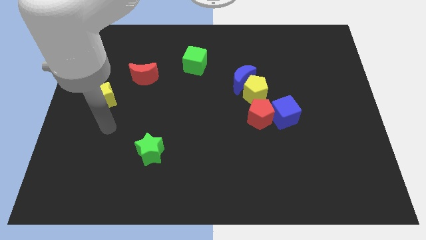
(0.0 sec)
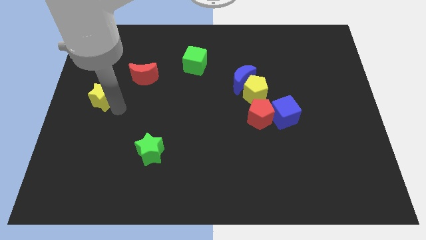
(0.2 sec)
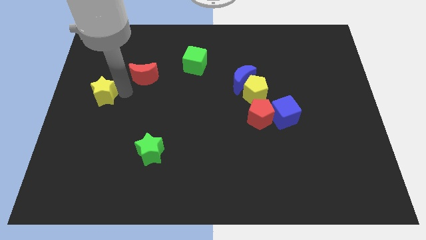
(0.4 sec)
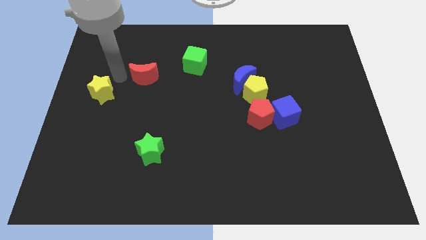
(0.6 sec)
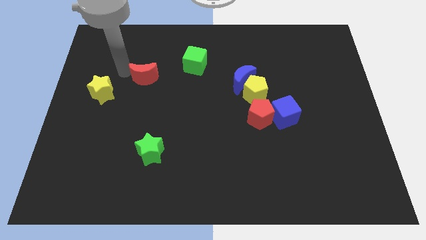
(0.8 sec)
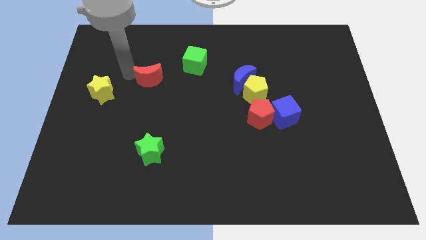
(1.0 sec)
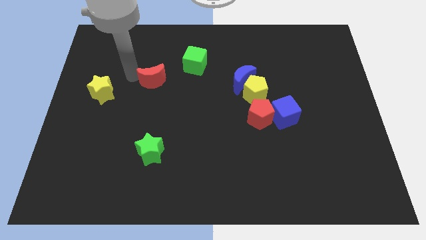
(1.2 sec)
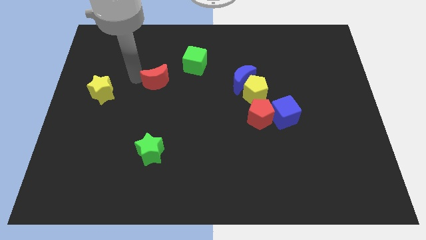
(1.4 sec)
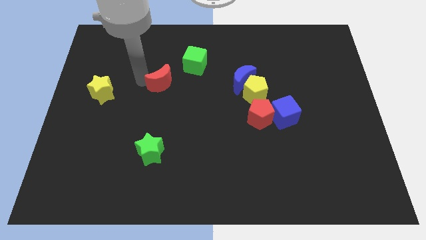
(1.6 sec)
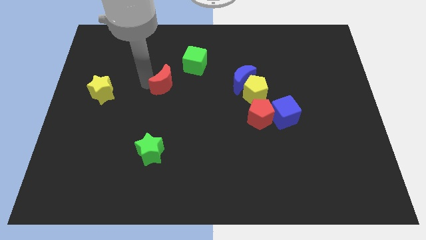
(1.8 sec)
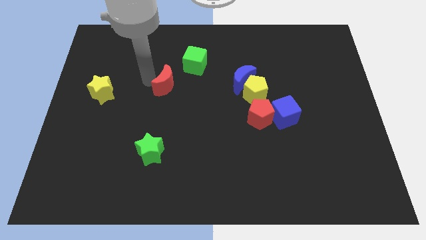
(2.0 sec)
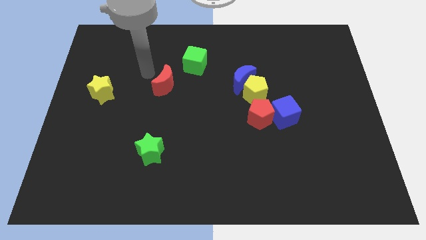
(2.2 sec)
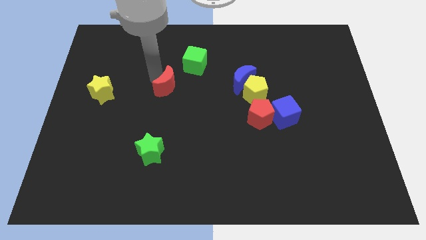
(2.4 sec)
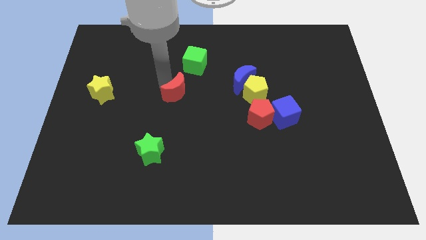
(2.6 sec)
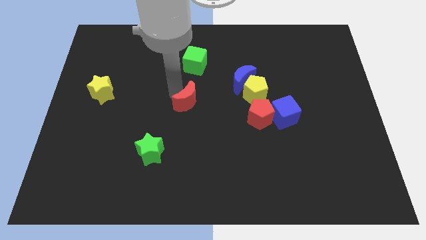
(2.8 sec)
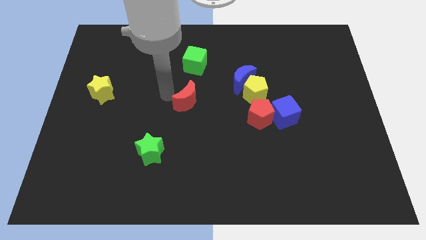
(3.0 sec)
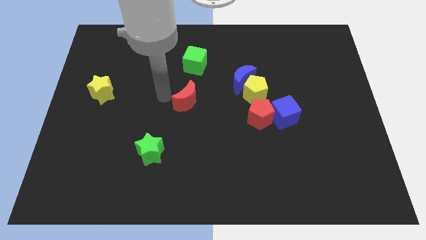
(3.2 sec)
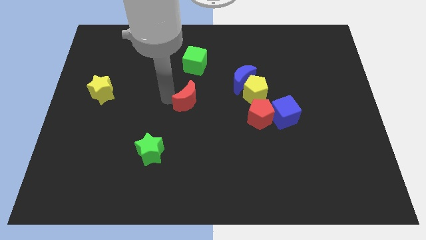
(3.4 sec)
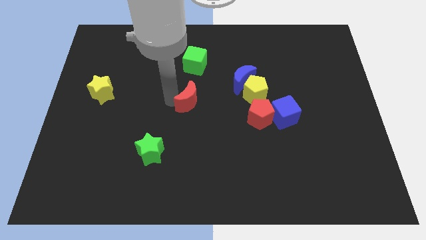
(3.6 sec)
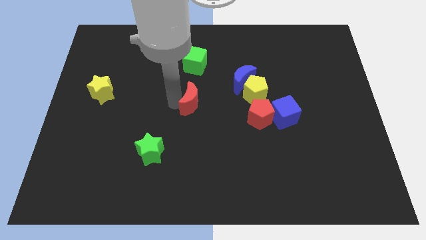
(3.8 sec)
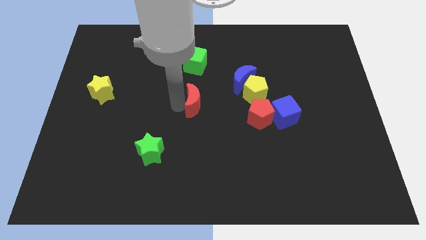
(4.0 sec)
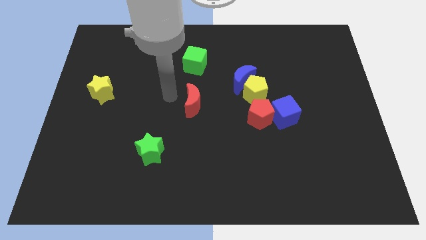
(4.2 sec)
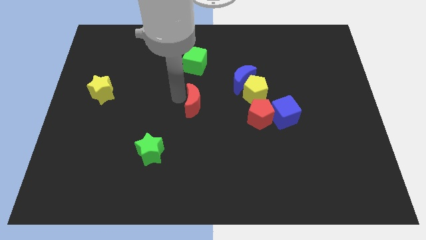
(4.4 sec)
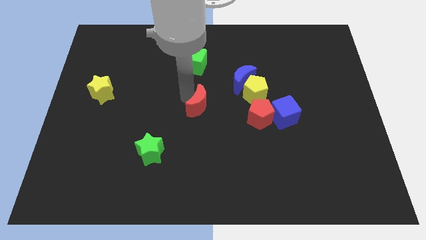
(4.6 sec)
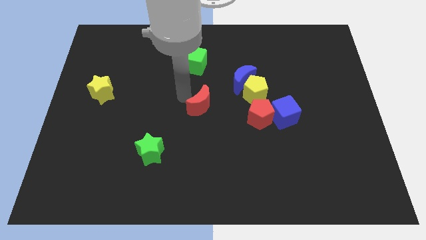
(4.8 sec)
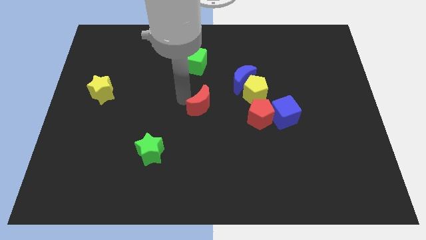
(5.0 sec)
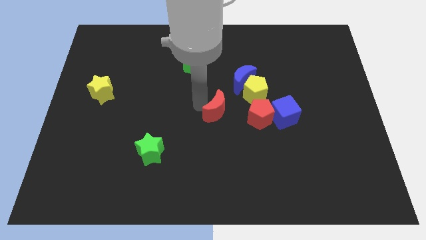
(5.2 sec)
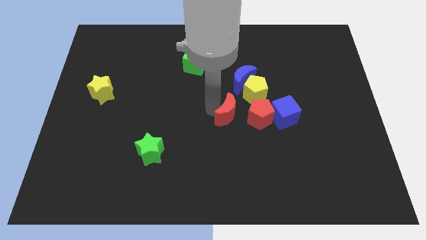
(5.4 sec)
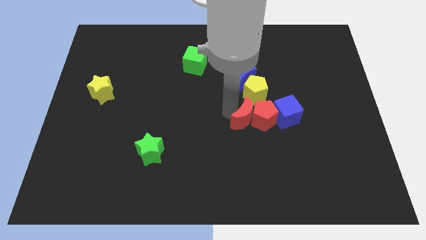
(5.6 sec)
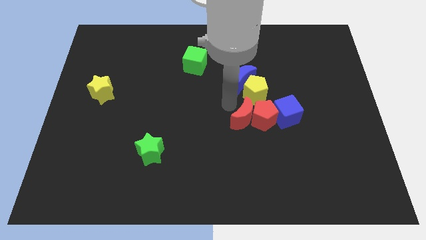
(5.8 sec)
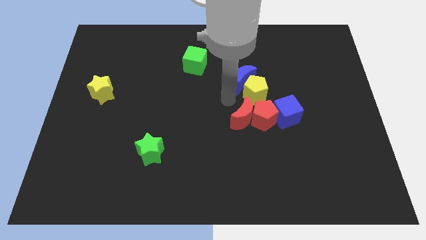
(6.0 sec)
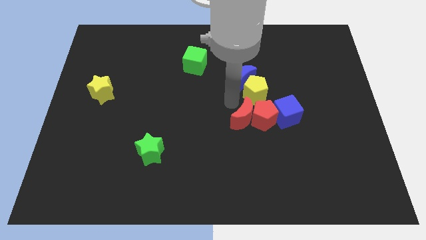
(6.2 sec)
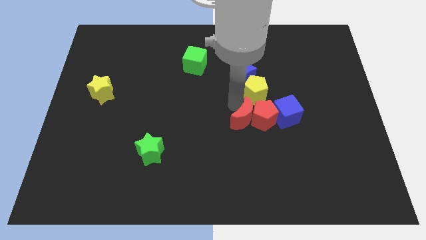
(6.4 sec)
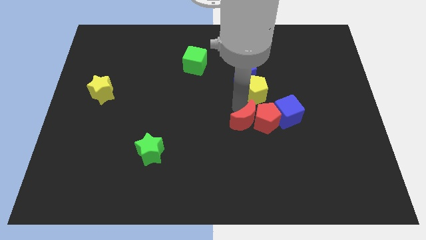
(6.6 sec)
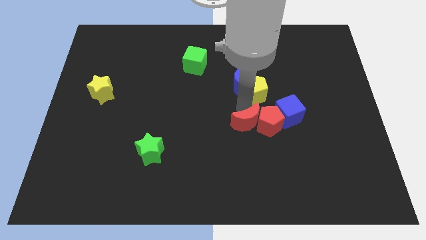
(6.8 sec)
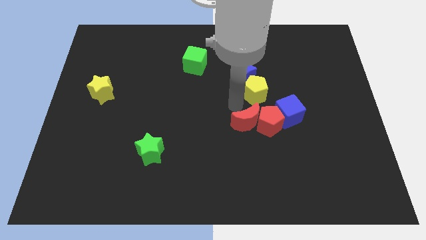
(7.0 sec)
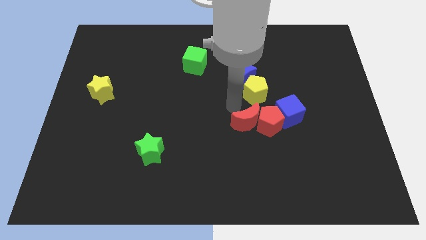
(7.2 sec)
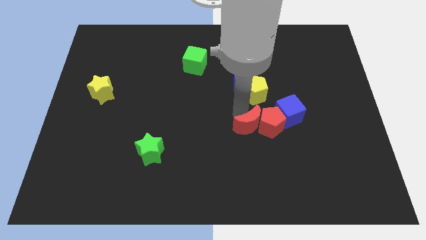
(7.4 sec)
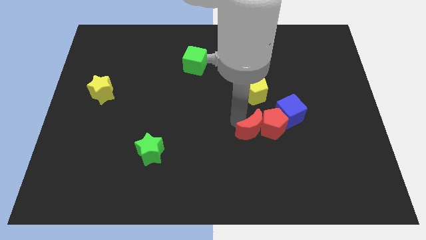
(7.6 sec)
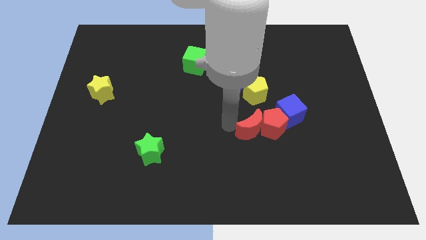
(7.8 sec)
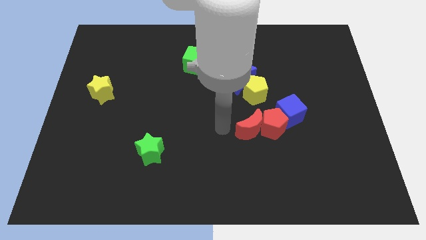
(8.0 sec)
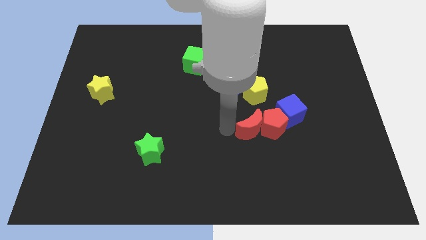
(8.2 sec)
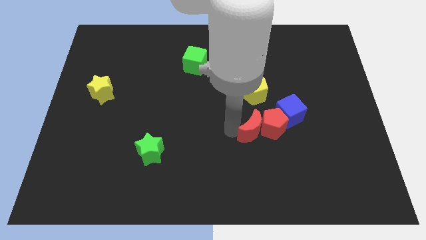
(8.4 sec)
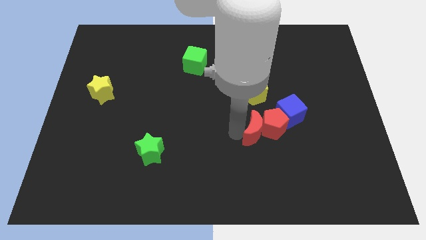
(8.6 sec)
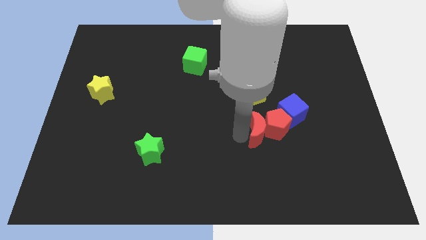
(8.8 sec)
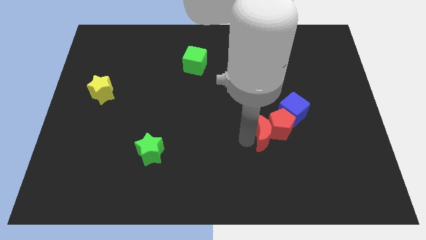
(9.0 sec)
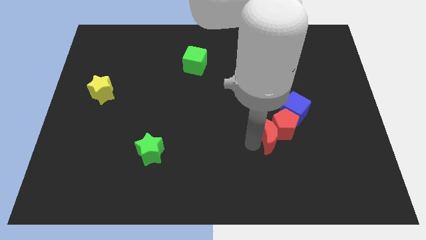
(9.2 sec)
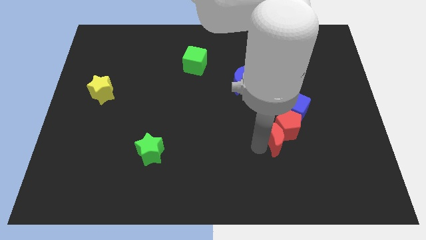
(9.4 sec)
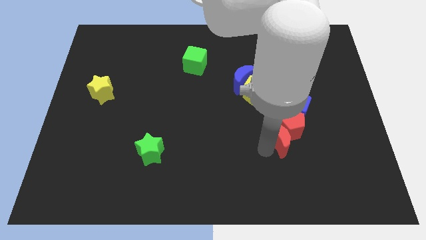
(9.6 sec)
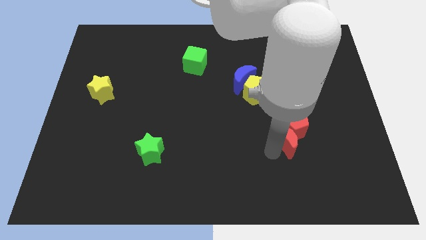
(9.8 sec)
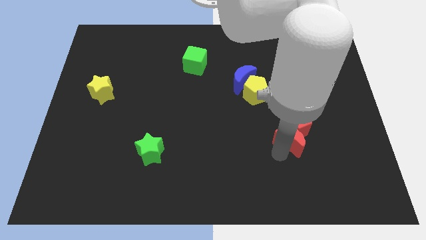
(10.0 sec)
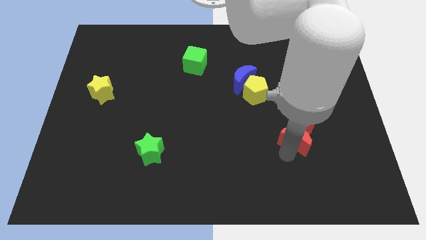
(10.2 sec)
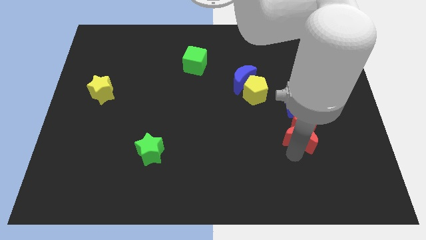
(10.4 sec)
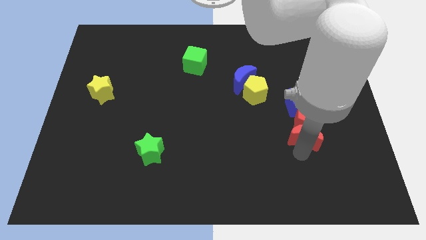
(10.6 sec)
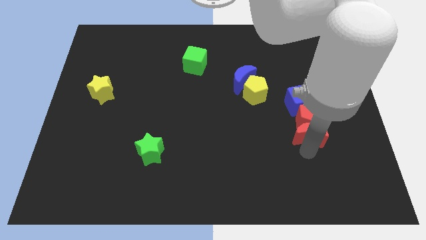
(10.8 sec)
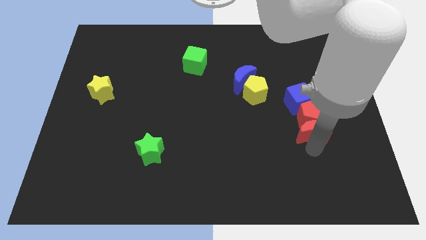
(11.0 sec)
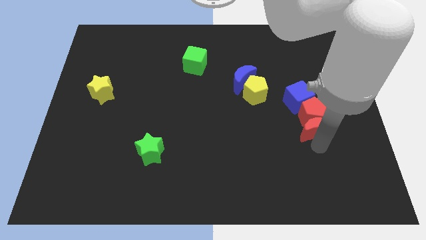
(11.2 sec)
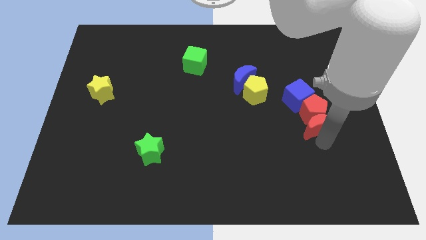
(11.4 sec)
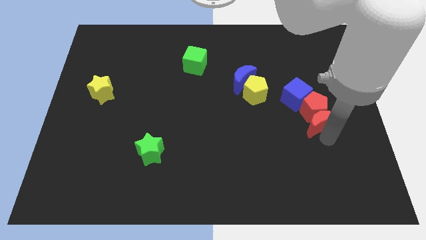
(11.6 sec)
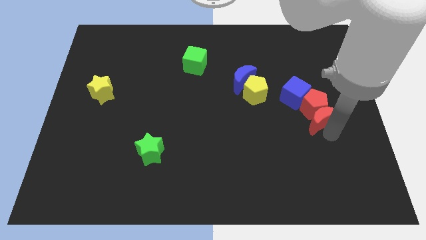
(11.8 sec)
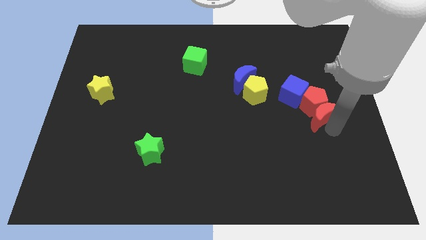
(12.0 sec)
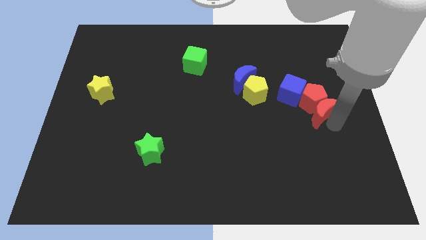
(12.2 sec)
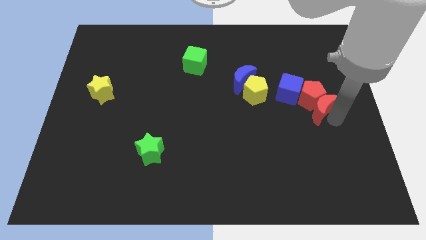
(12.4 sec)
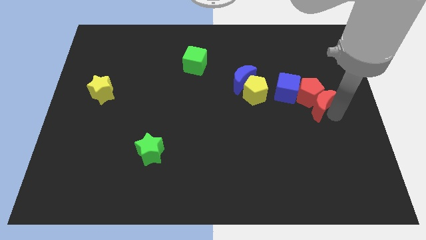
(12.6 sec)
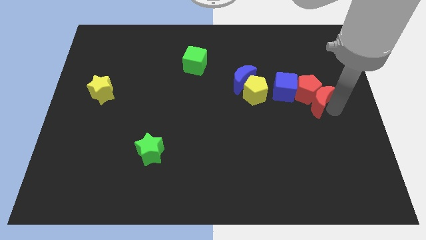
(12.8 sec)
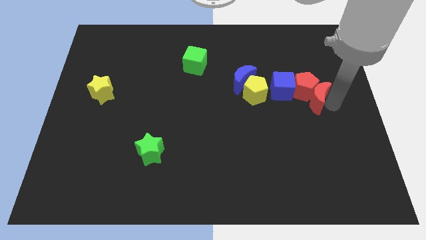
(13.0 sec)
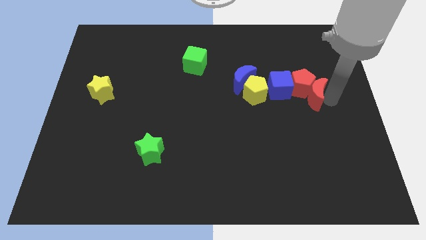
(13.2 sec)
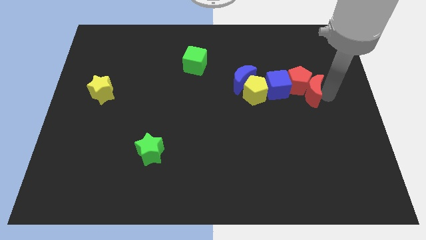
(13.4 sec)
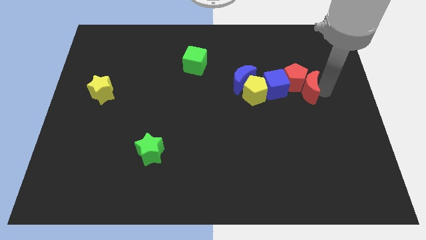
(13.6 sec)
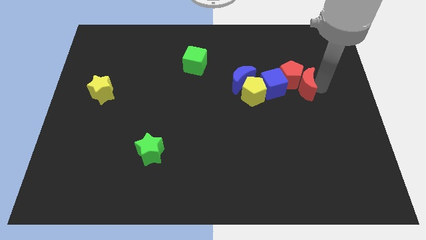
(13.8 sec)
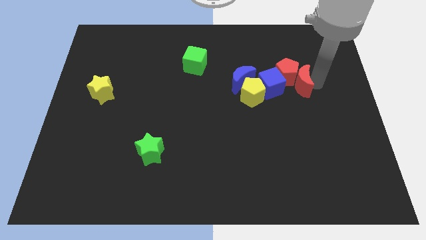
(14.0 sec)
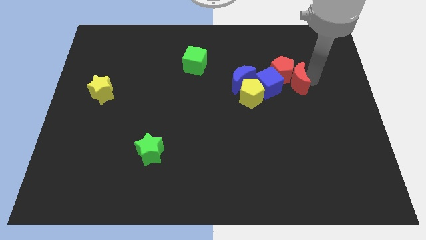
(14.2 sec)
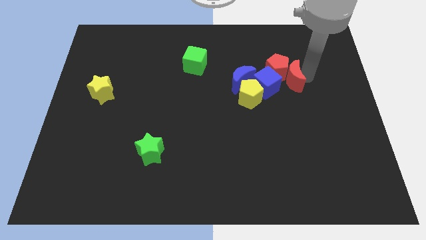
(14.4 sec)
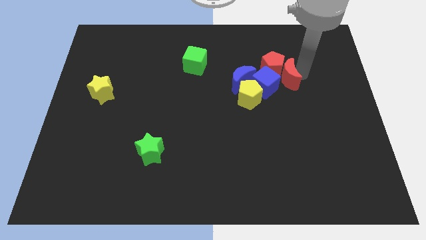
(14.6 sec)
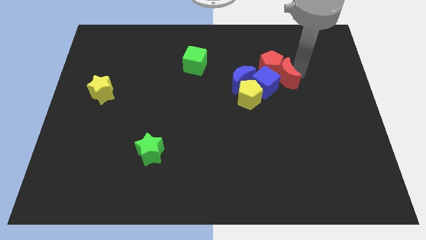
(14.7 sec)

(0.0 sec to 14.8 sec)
slide the red moon next to the blue cube
